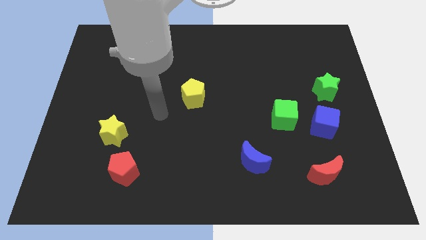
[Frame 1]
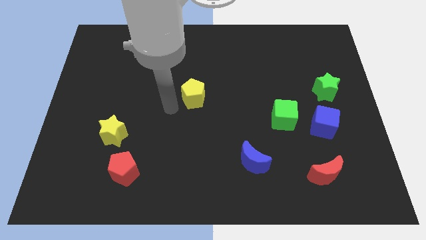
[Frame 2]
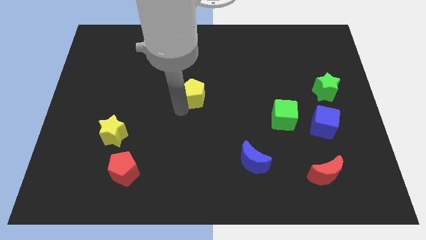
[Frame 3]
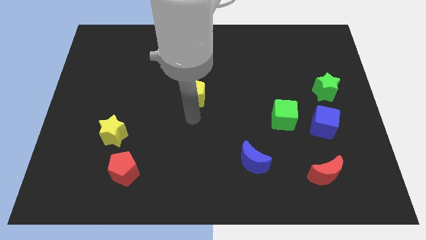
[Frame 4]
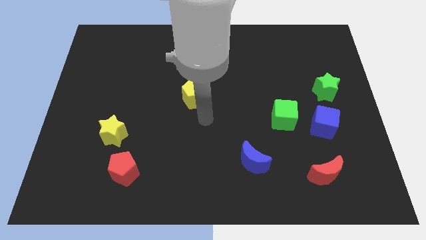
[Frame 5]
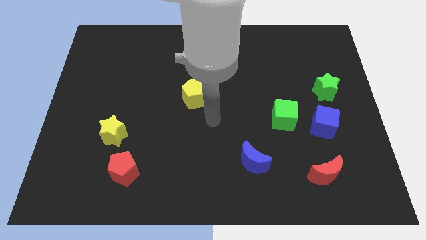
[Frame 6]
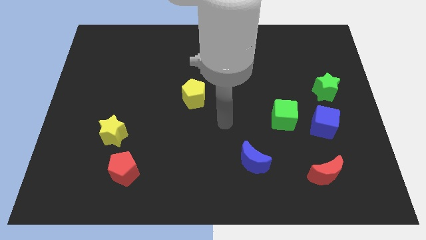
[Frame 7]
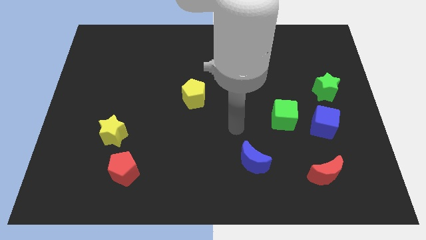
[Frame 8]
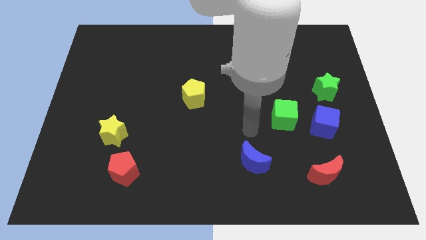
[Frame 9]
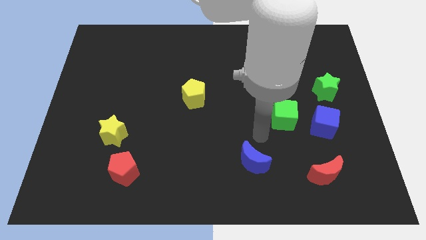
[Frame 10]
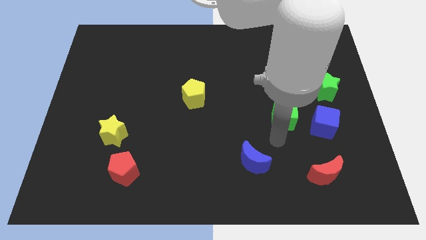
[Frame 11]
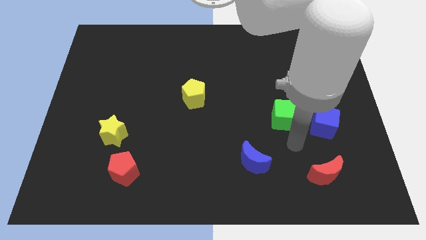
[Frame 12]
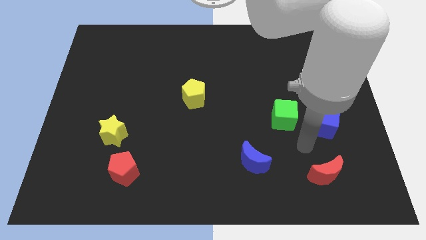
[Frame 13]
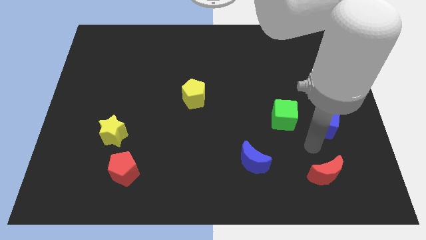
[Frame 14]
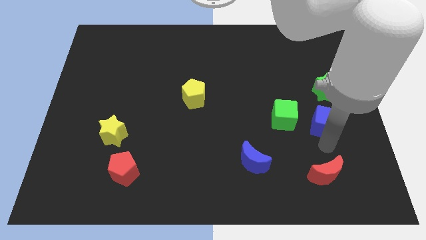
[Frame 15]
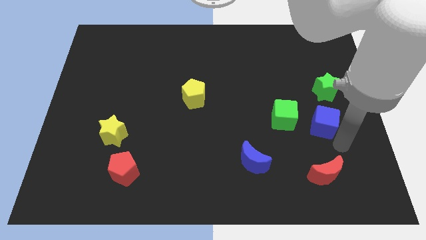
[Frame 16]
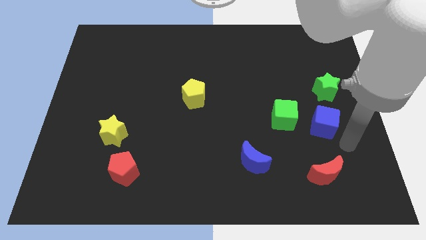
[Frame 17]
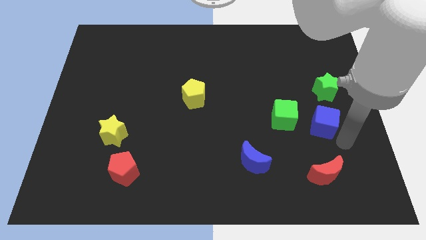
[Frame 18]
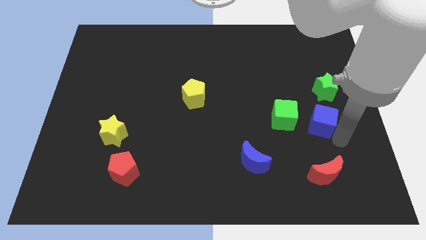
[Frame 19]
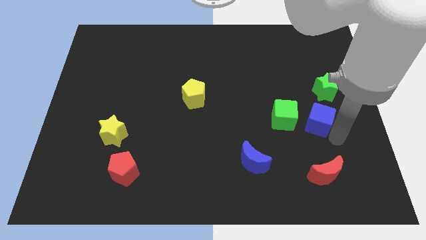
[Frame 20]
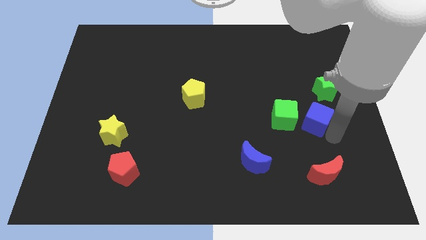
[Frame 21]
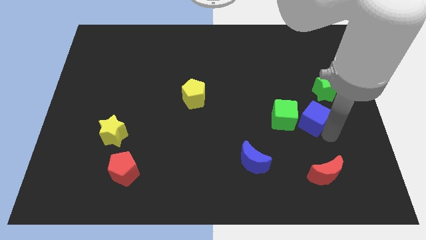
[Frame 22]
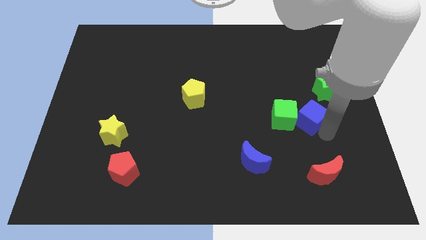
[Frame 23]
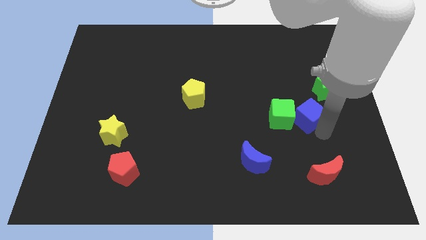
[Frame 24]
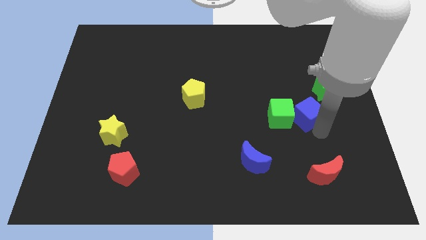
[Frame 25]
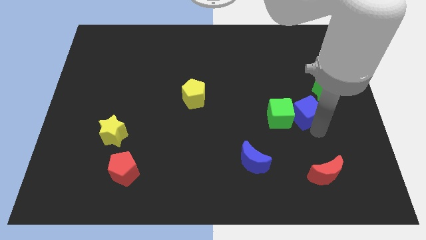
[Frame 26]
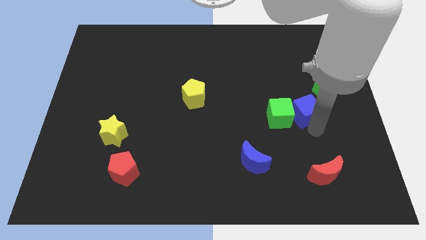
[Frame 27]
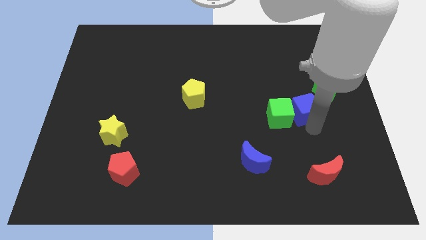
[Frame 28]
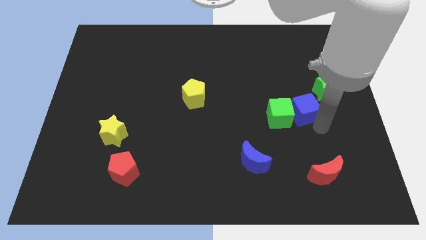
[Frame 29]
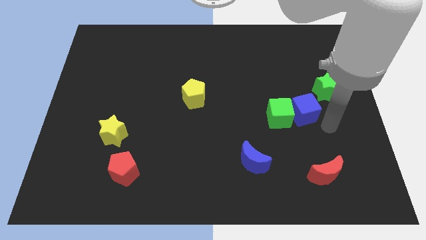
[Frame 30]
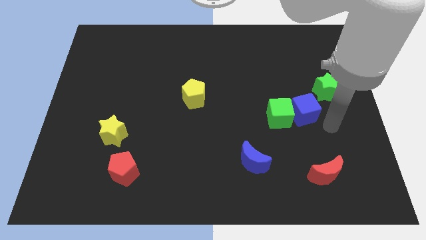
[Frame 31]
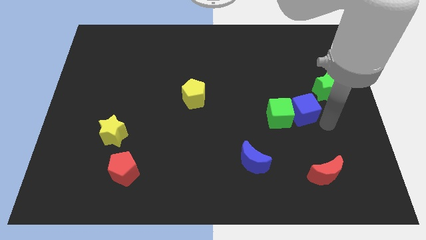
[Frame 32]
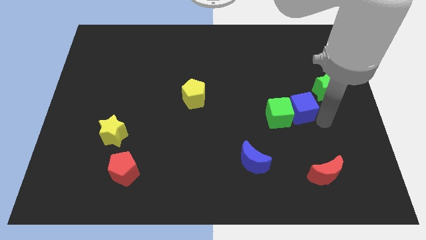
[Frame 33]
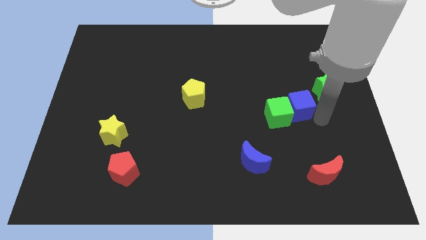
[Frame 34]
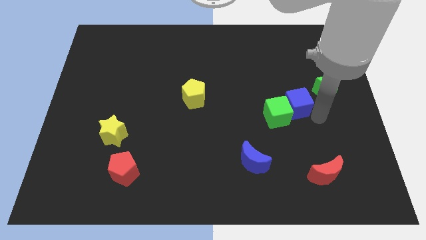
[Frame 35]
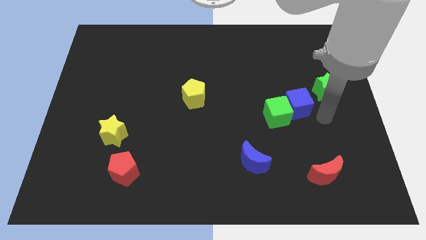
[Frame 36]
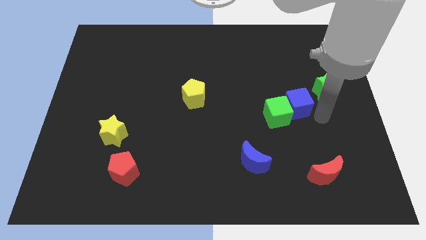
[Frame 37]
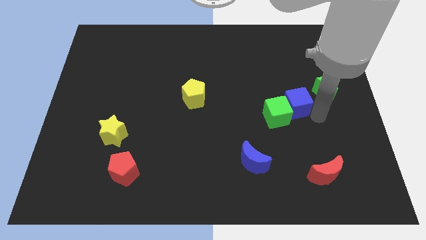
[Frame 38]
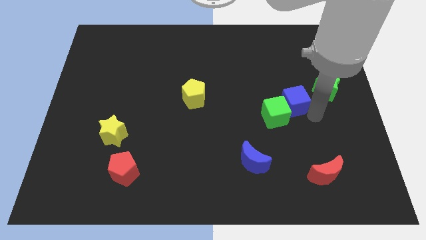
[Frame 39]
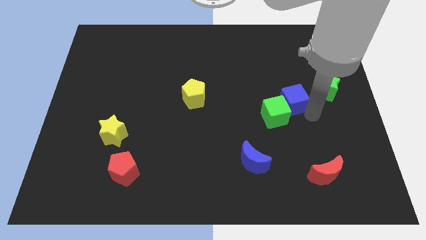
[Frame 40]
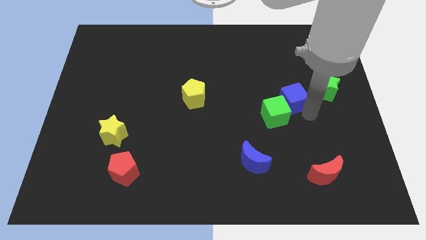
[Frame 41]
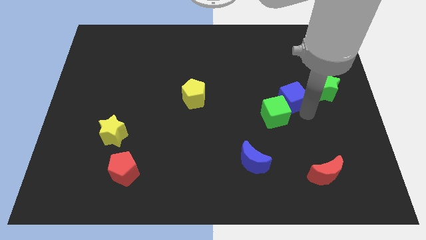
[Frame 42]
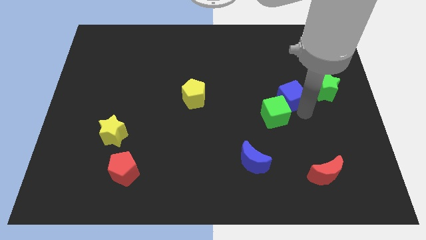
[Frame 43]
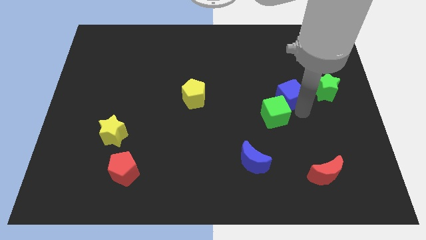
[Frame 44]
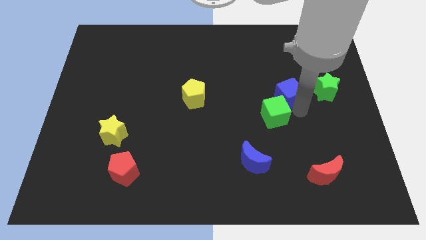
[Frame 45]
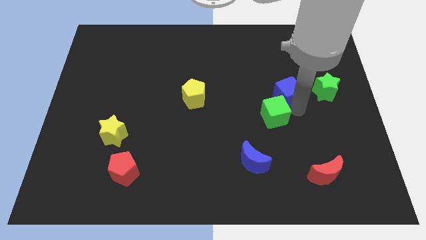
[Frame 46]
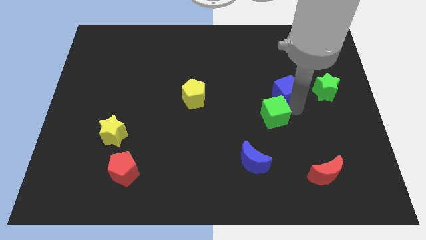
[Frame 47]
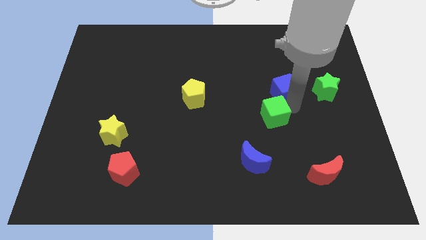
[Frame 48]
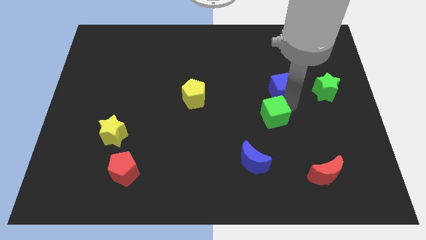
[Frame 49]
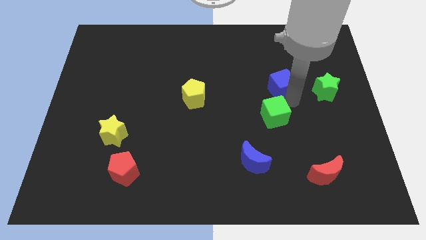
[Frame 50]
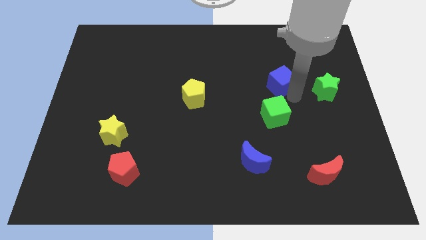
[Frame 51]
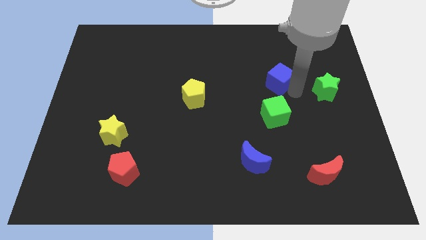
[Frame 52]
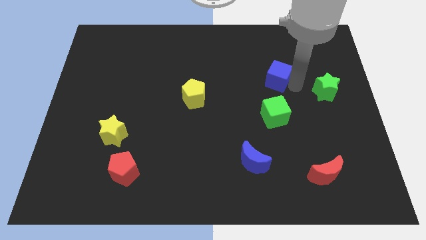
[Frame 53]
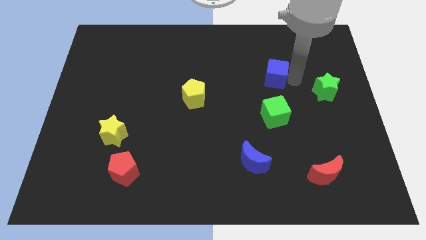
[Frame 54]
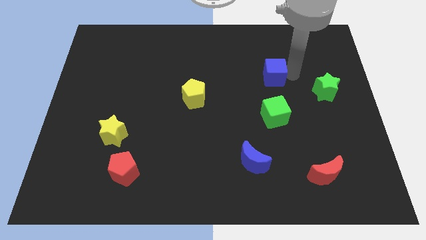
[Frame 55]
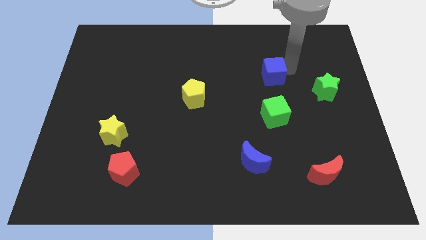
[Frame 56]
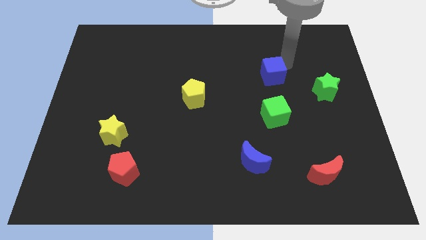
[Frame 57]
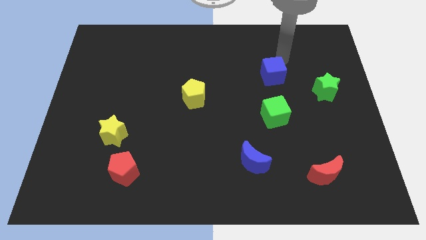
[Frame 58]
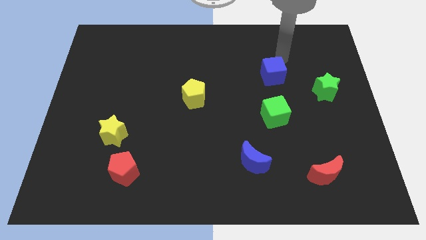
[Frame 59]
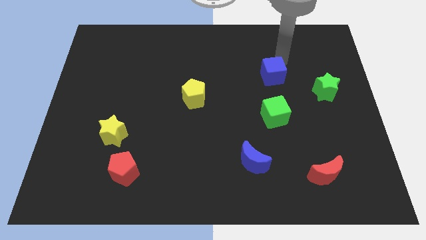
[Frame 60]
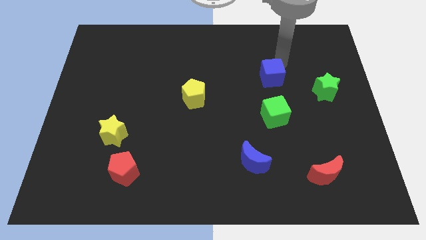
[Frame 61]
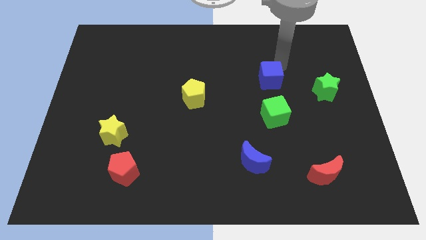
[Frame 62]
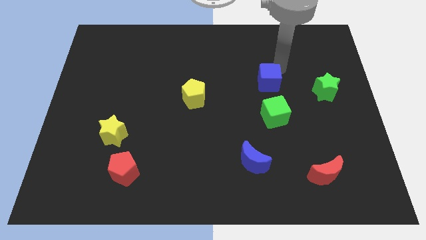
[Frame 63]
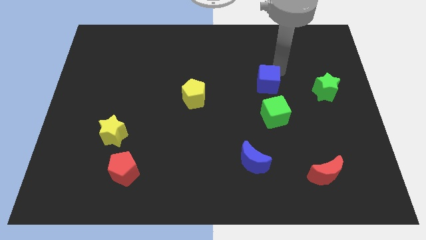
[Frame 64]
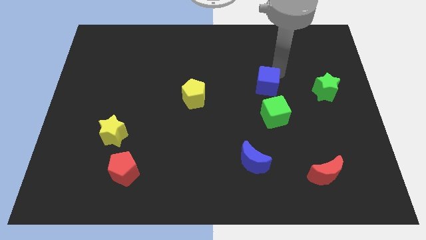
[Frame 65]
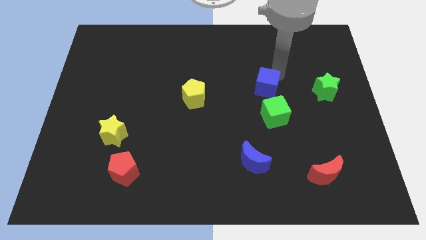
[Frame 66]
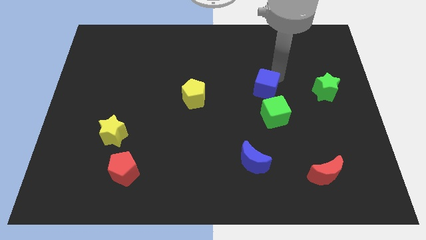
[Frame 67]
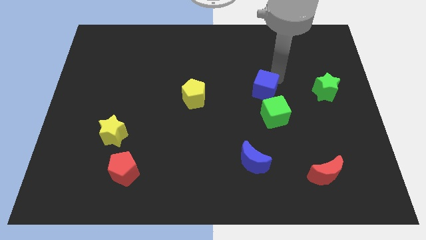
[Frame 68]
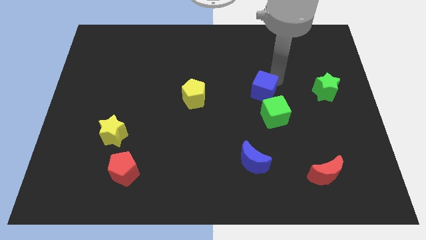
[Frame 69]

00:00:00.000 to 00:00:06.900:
slide the blue cube to the middle
